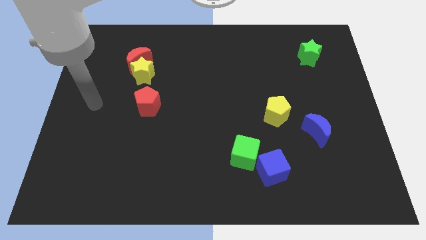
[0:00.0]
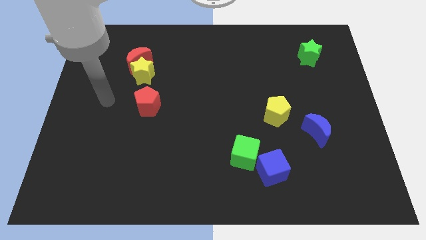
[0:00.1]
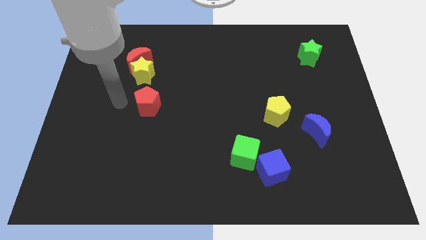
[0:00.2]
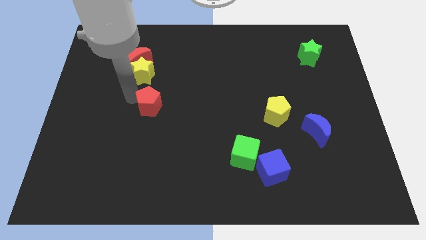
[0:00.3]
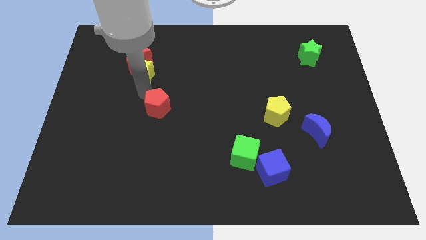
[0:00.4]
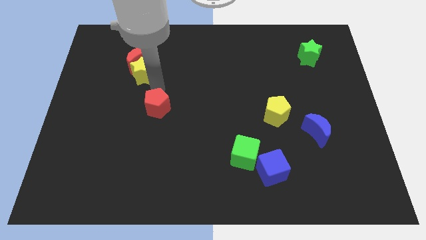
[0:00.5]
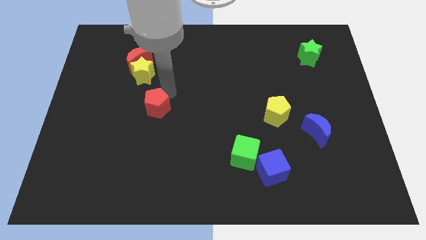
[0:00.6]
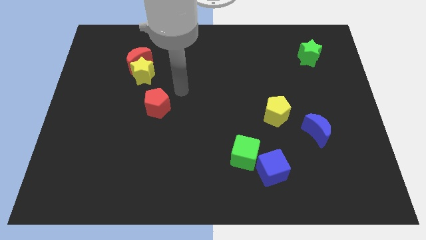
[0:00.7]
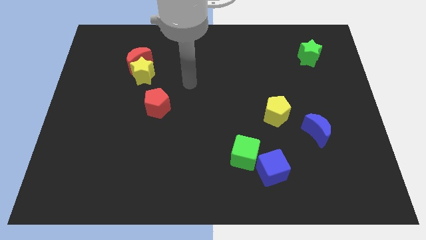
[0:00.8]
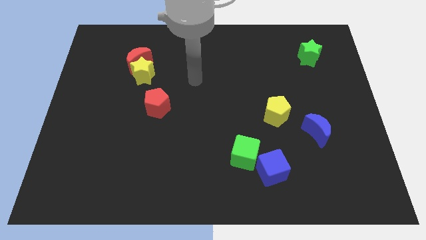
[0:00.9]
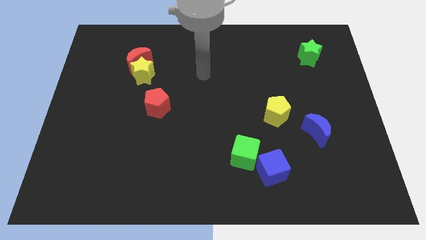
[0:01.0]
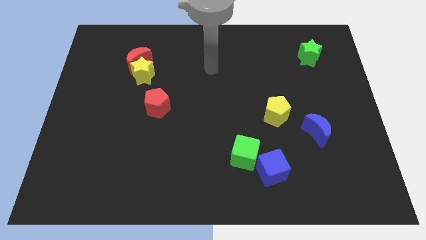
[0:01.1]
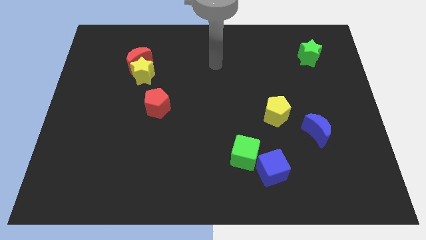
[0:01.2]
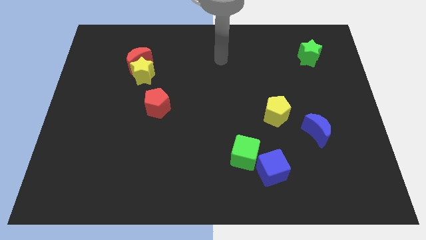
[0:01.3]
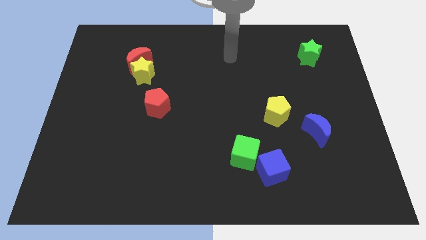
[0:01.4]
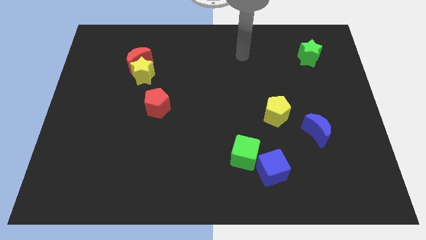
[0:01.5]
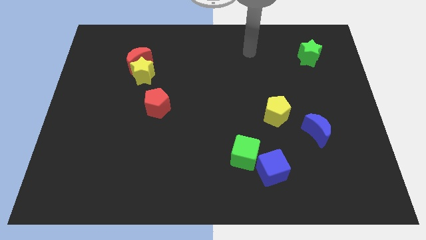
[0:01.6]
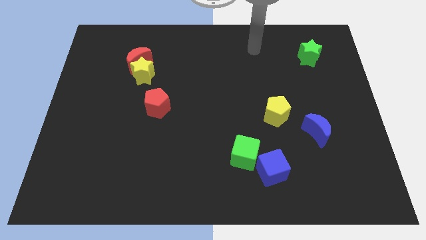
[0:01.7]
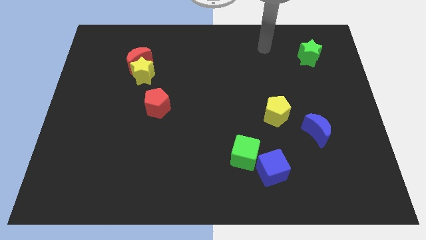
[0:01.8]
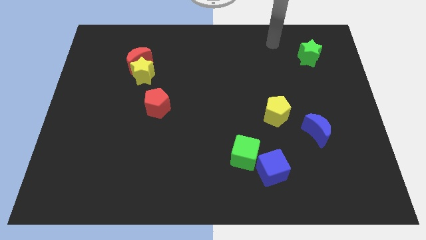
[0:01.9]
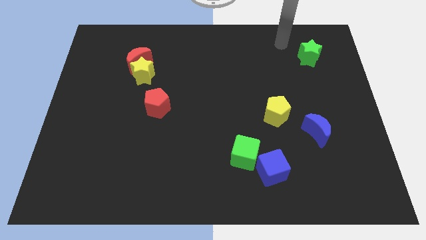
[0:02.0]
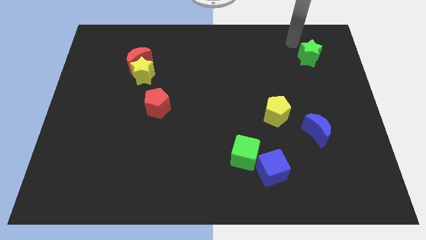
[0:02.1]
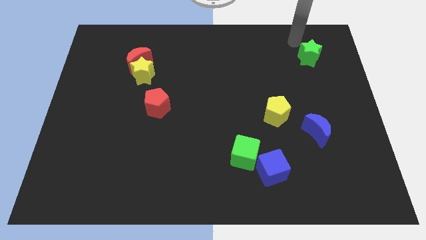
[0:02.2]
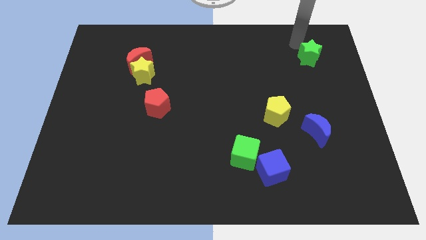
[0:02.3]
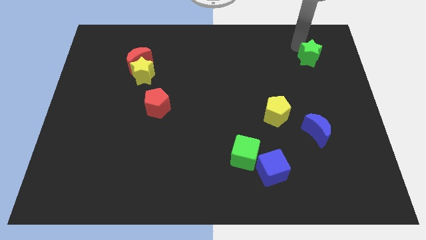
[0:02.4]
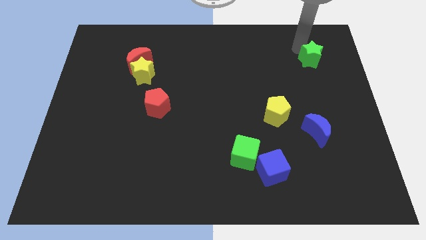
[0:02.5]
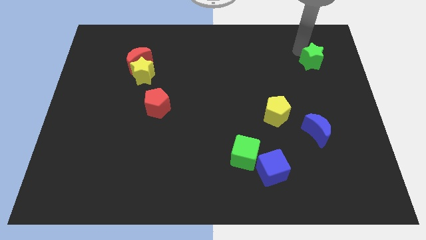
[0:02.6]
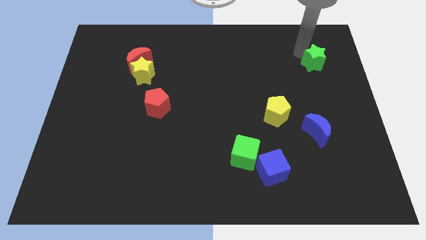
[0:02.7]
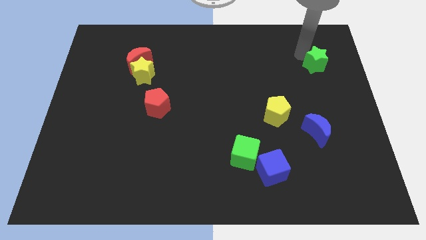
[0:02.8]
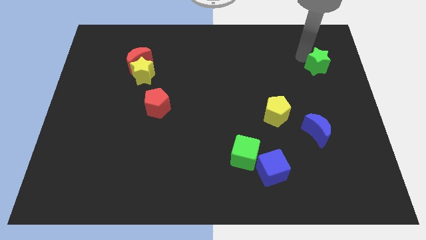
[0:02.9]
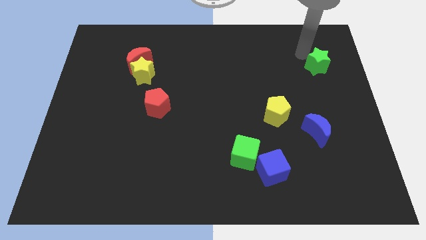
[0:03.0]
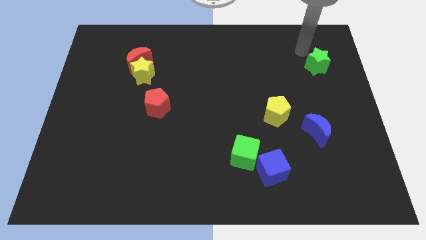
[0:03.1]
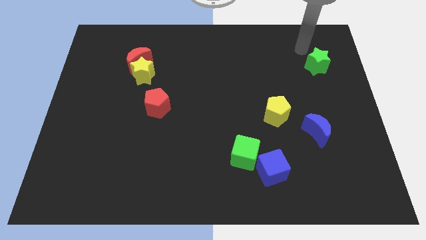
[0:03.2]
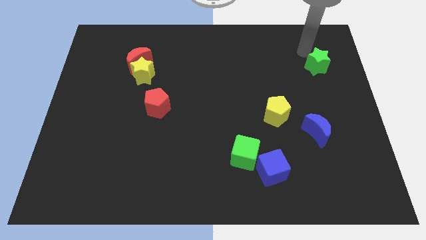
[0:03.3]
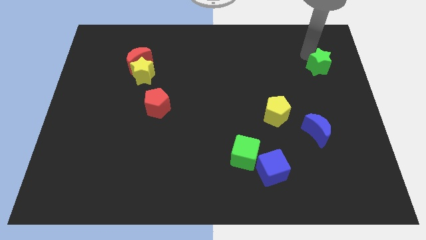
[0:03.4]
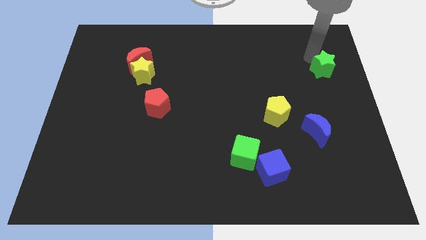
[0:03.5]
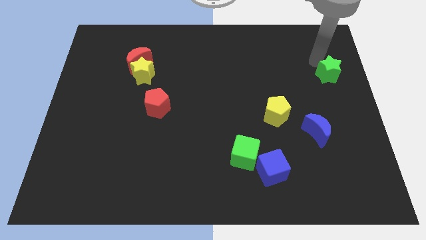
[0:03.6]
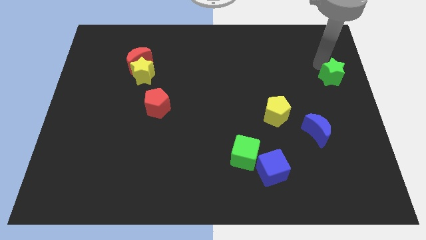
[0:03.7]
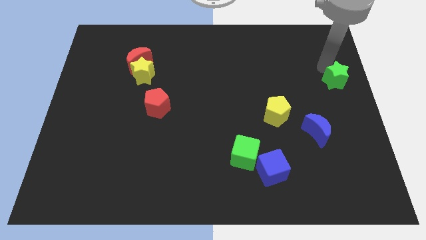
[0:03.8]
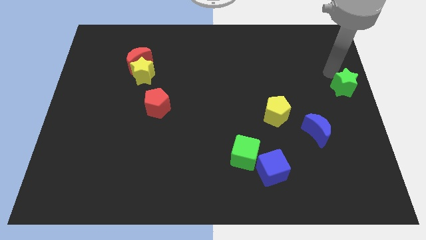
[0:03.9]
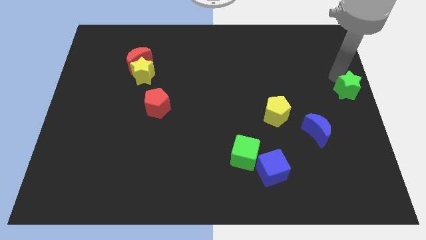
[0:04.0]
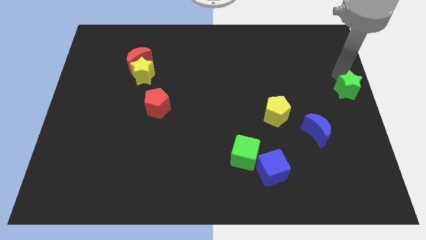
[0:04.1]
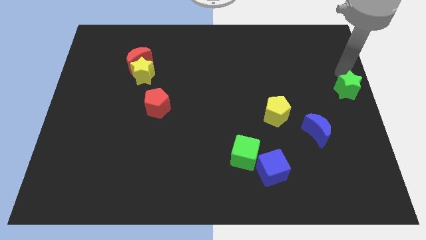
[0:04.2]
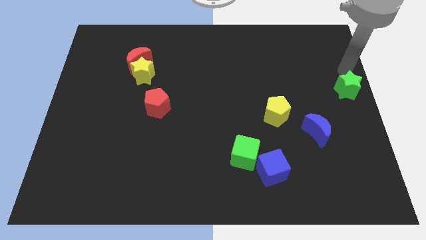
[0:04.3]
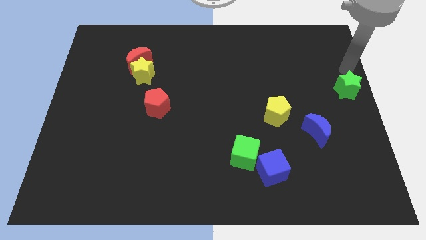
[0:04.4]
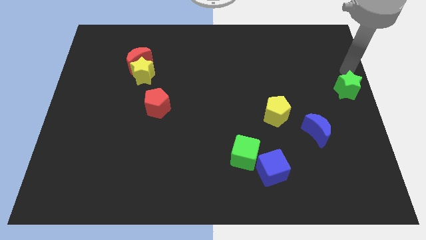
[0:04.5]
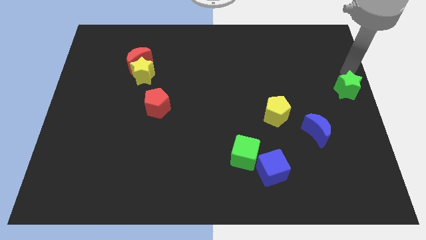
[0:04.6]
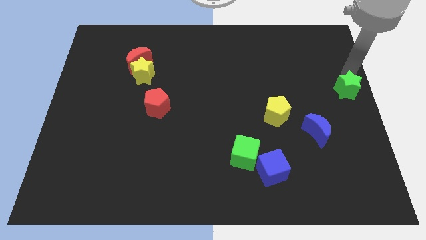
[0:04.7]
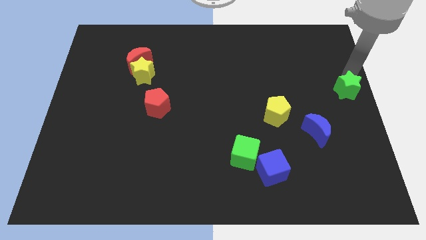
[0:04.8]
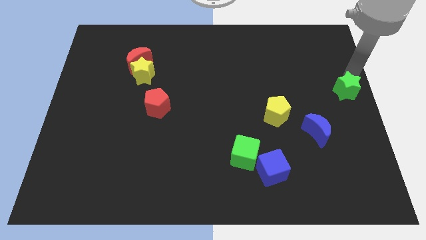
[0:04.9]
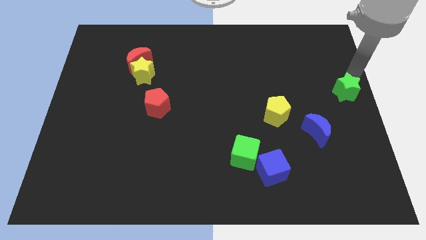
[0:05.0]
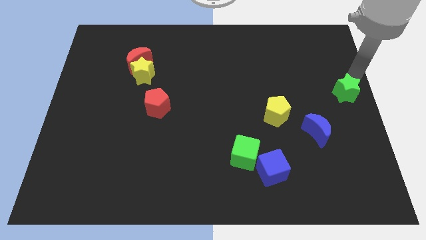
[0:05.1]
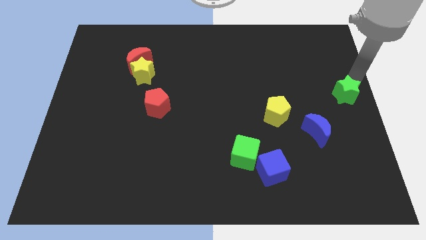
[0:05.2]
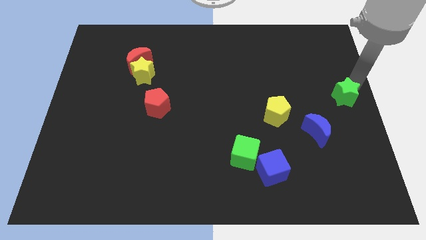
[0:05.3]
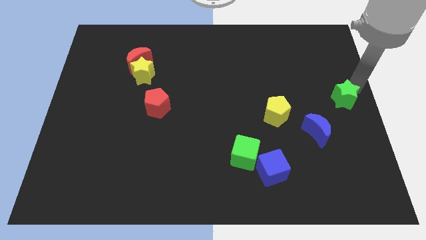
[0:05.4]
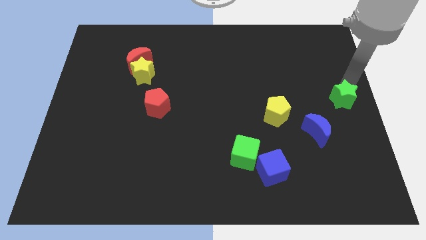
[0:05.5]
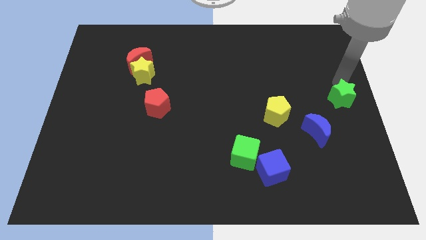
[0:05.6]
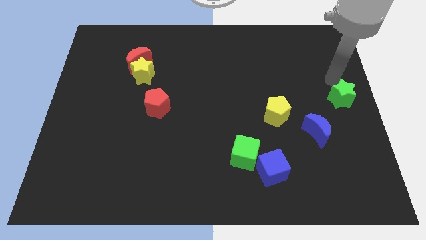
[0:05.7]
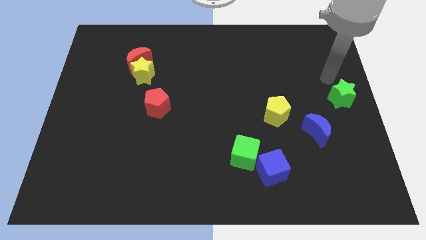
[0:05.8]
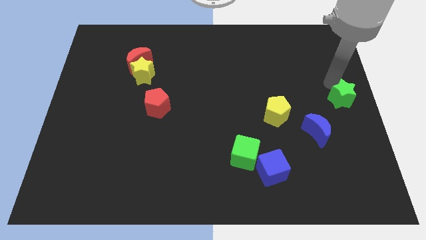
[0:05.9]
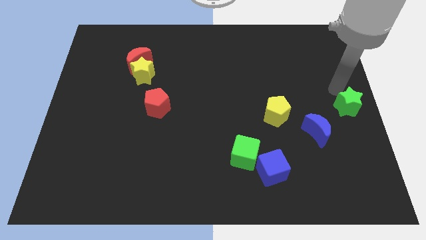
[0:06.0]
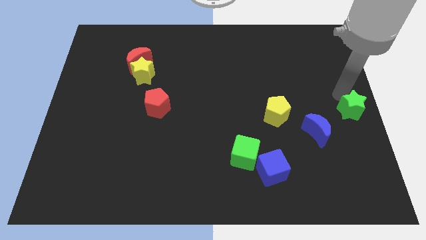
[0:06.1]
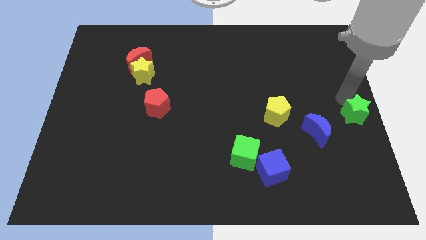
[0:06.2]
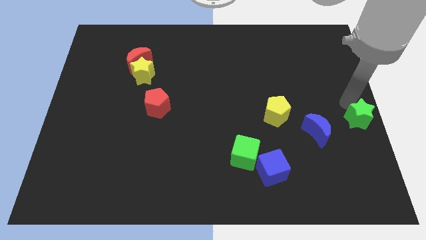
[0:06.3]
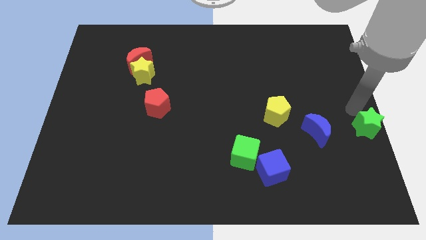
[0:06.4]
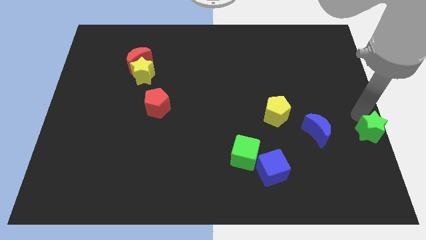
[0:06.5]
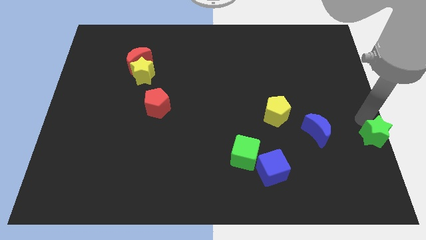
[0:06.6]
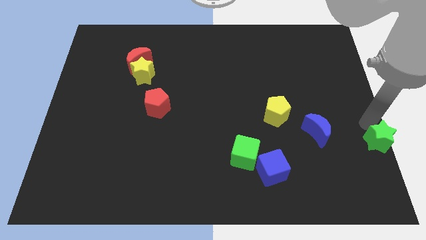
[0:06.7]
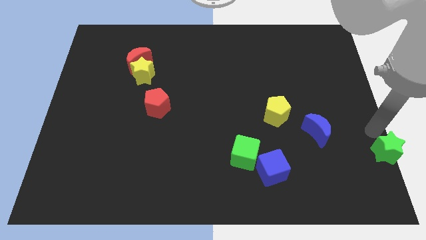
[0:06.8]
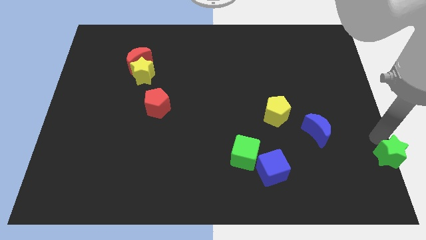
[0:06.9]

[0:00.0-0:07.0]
move the green star to the bottom right
